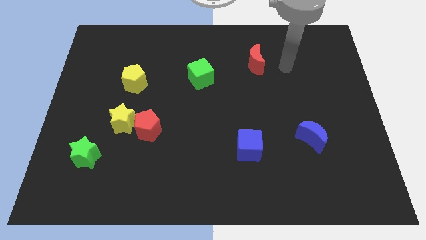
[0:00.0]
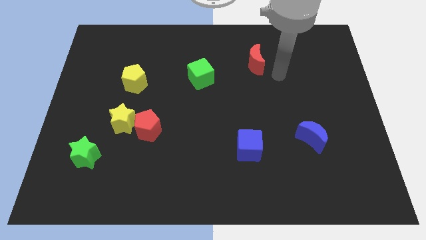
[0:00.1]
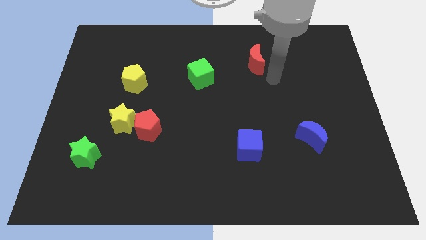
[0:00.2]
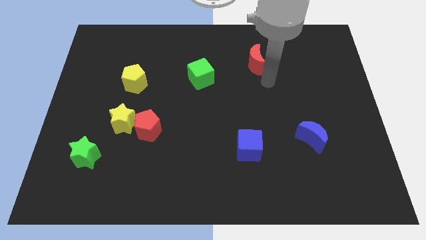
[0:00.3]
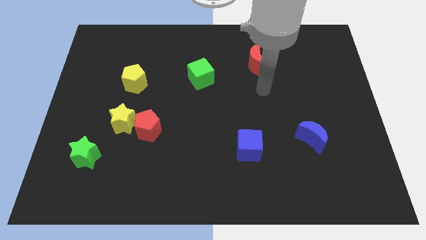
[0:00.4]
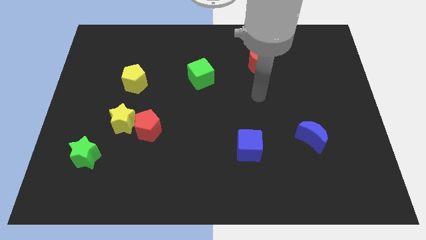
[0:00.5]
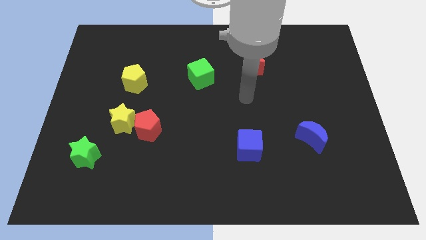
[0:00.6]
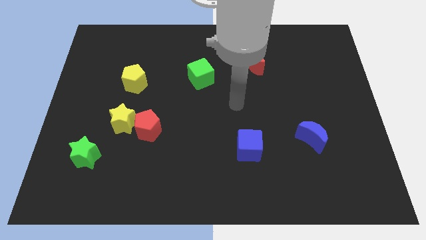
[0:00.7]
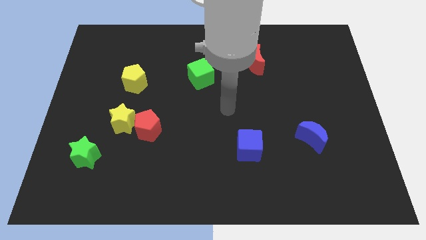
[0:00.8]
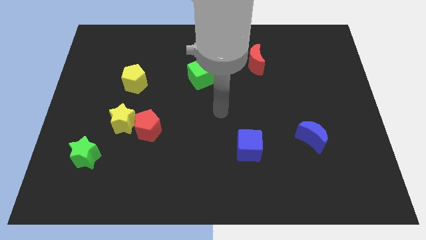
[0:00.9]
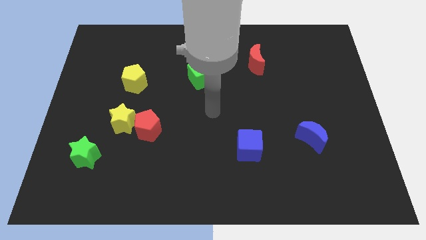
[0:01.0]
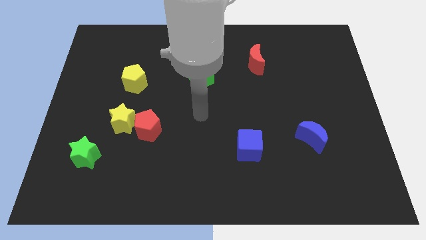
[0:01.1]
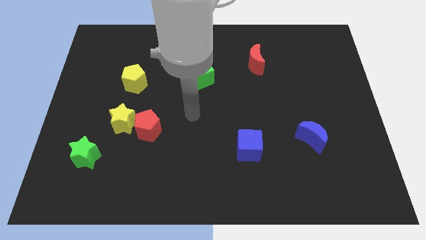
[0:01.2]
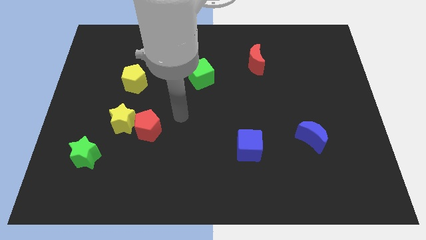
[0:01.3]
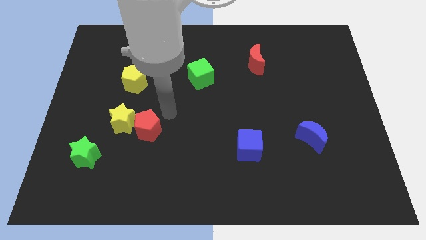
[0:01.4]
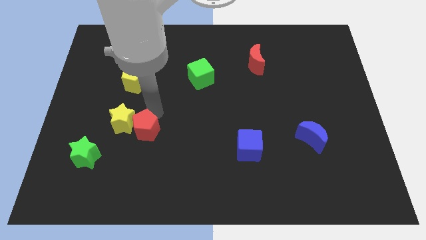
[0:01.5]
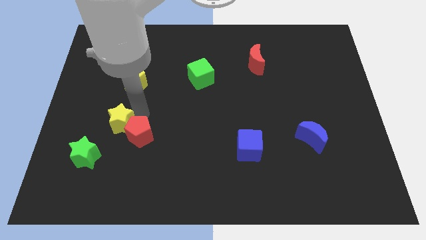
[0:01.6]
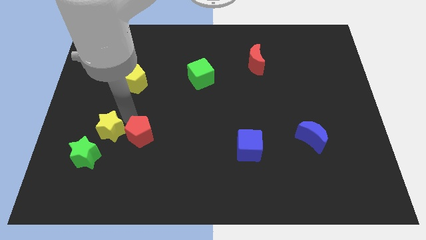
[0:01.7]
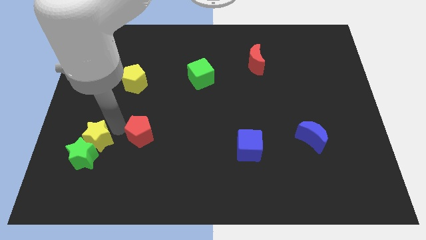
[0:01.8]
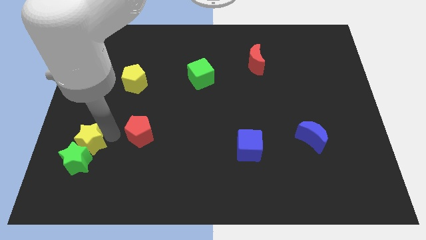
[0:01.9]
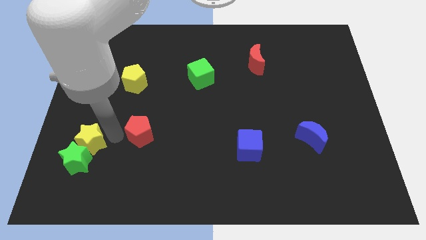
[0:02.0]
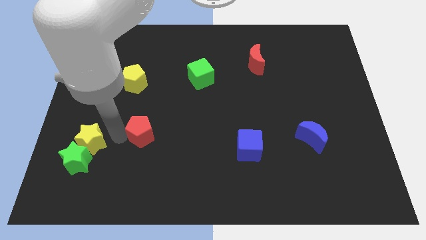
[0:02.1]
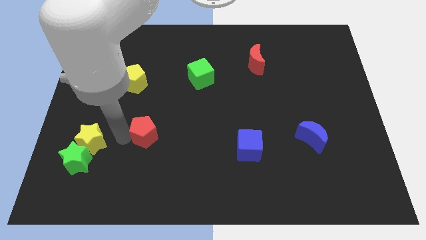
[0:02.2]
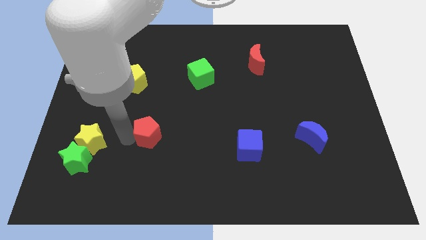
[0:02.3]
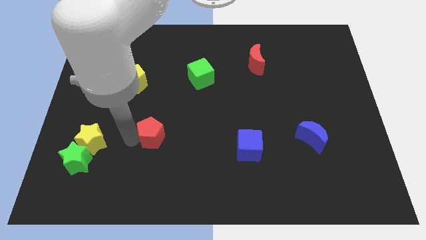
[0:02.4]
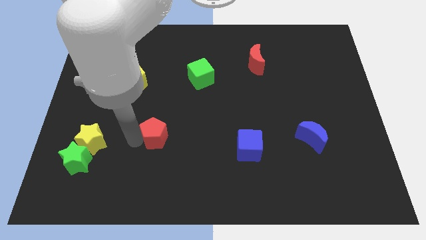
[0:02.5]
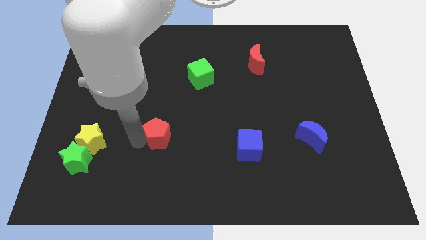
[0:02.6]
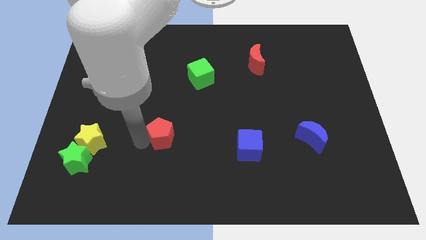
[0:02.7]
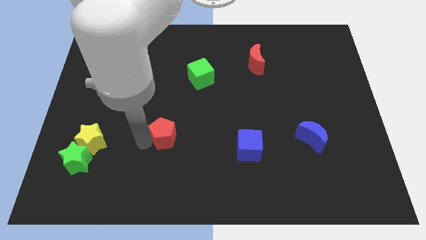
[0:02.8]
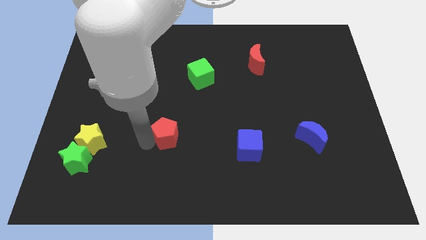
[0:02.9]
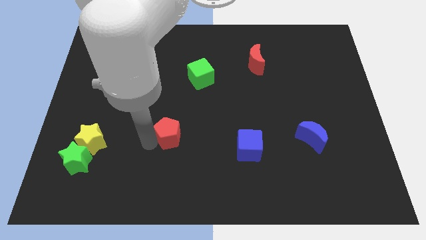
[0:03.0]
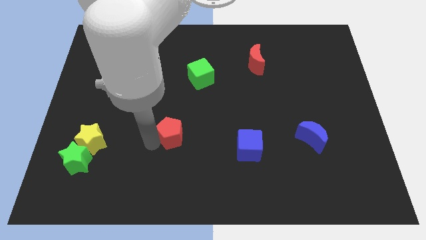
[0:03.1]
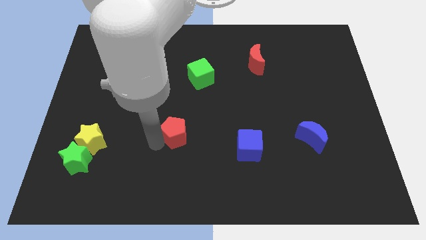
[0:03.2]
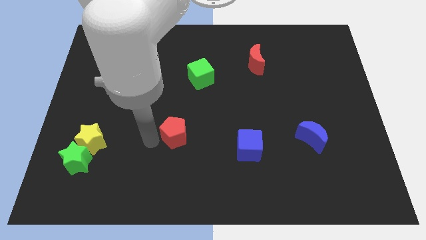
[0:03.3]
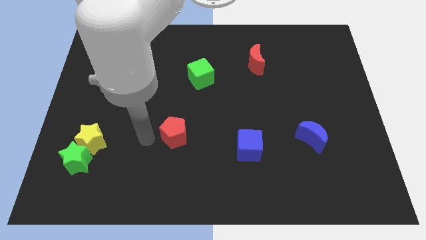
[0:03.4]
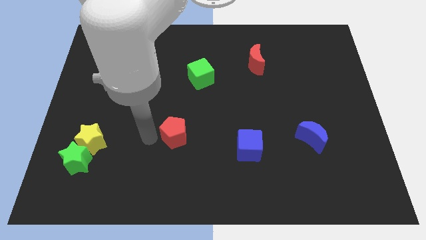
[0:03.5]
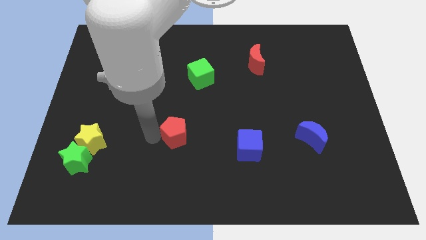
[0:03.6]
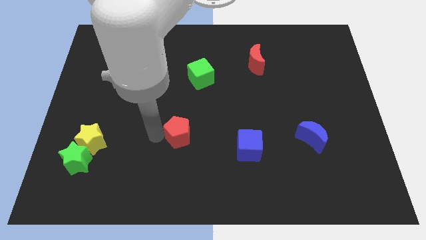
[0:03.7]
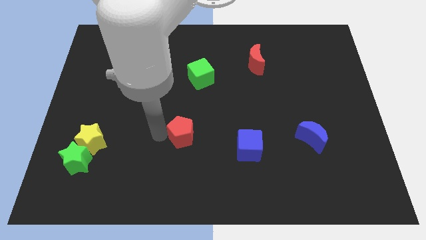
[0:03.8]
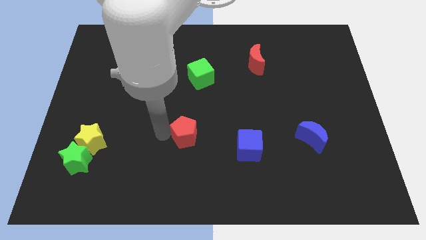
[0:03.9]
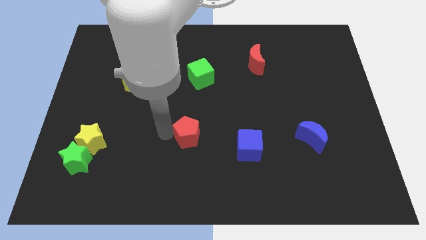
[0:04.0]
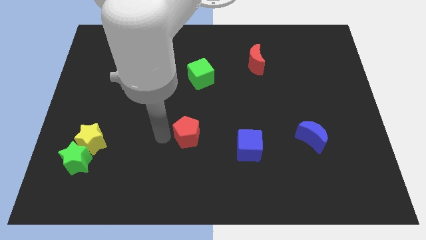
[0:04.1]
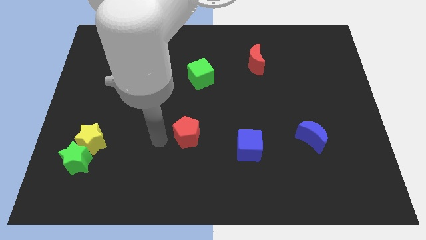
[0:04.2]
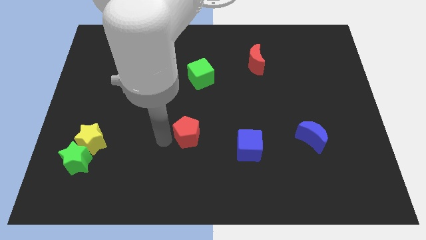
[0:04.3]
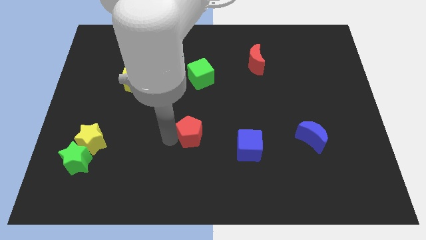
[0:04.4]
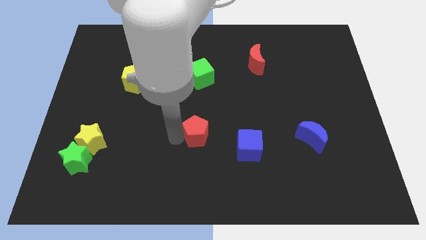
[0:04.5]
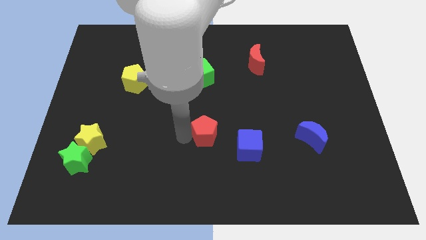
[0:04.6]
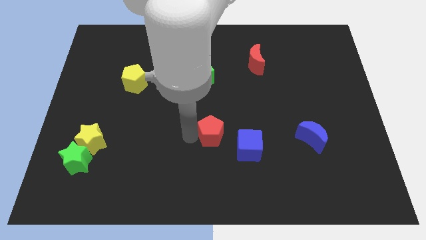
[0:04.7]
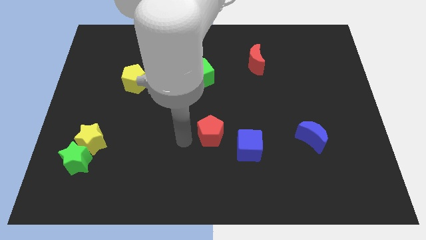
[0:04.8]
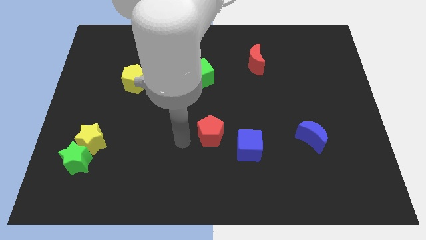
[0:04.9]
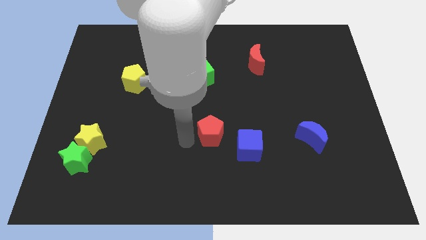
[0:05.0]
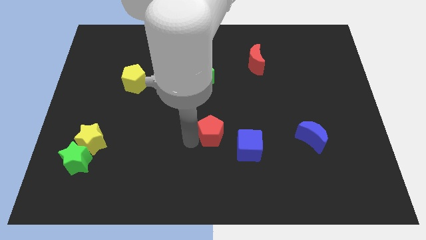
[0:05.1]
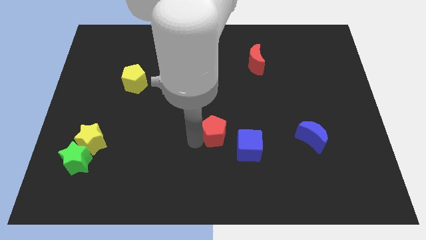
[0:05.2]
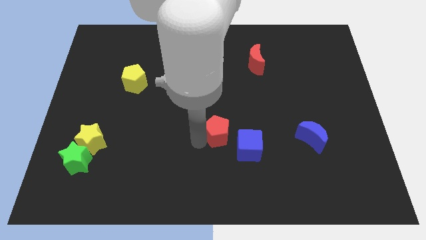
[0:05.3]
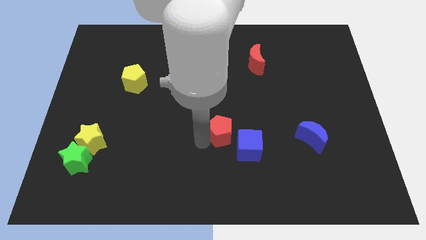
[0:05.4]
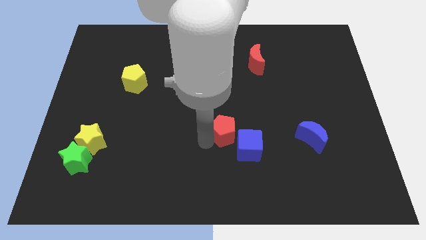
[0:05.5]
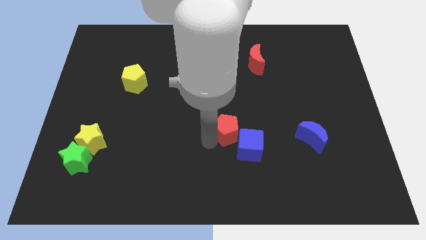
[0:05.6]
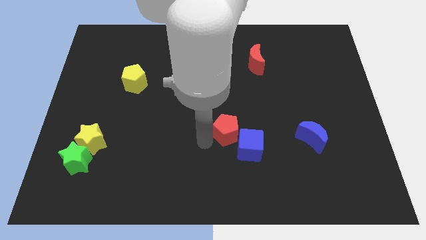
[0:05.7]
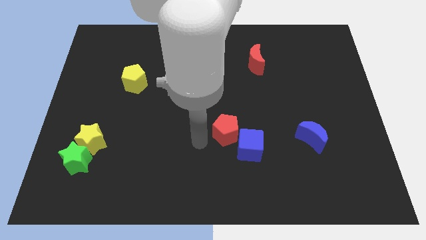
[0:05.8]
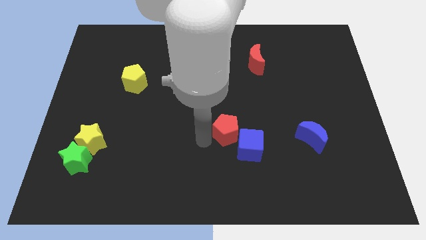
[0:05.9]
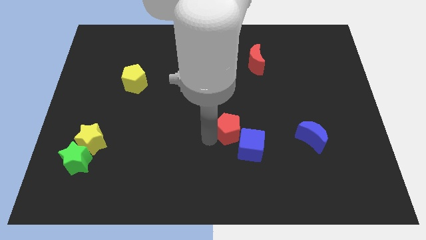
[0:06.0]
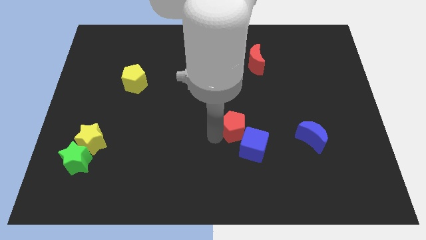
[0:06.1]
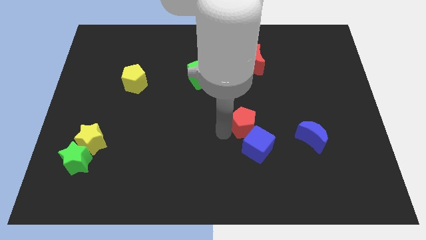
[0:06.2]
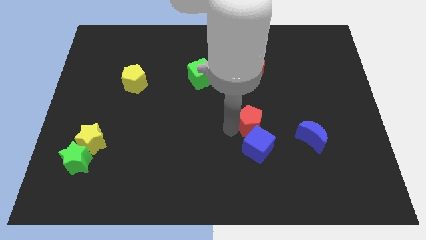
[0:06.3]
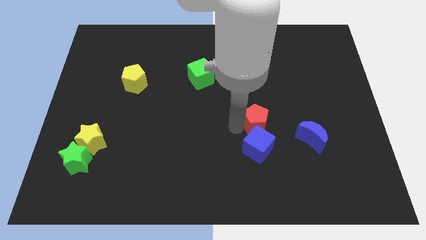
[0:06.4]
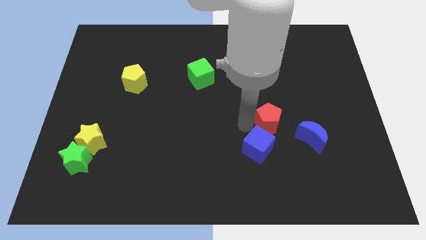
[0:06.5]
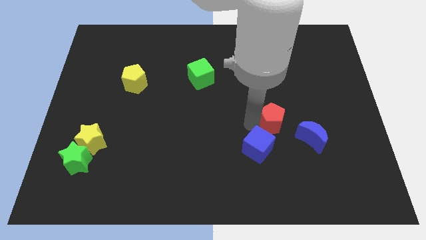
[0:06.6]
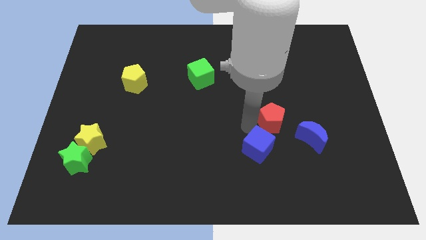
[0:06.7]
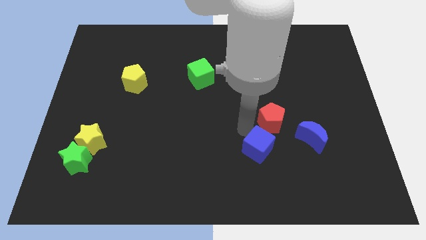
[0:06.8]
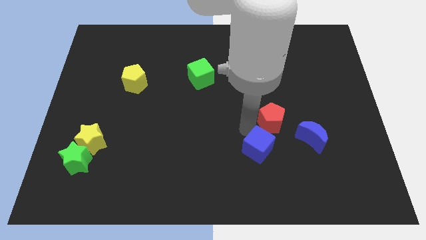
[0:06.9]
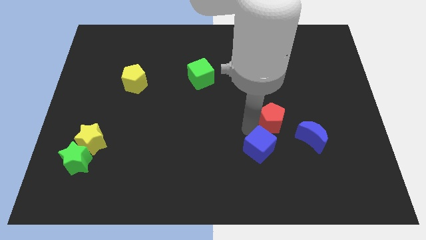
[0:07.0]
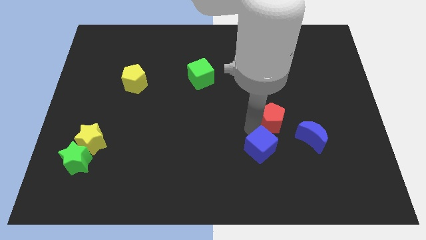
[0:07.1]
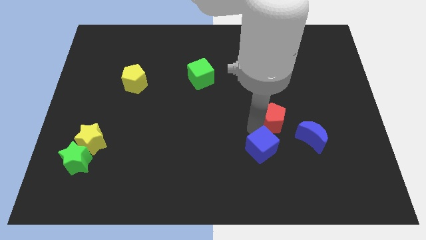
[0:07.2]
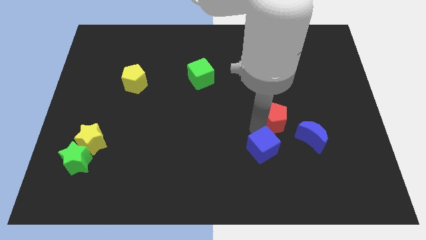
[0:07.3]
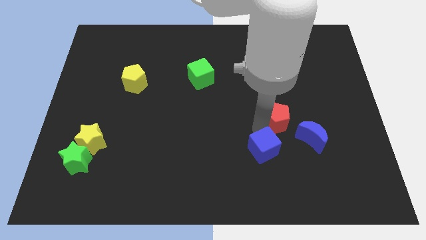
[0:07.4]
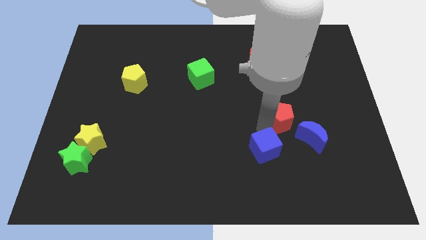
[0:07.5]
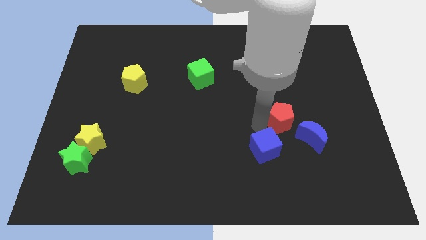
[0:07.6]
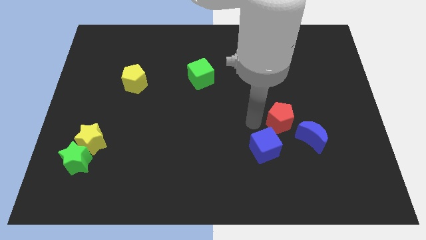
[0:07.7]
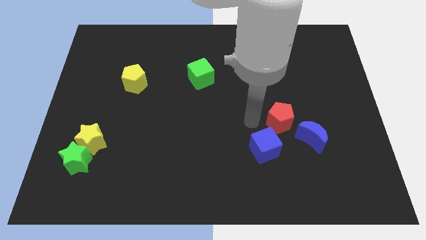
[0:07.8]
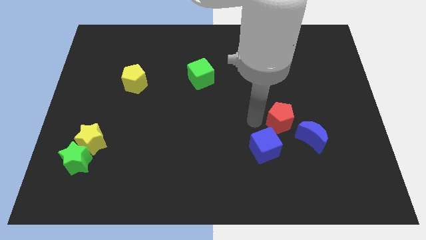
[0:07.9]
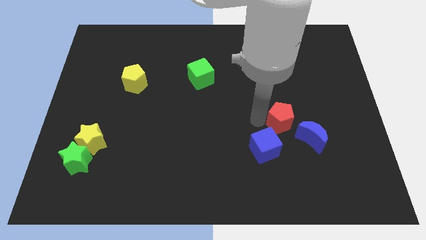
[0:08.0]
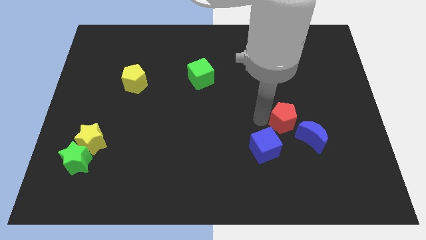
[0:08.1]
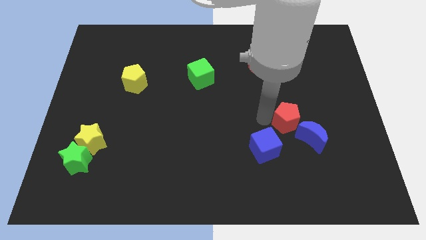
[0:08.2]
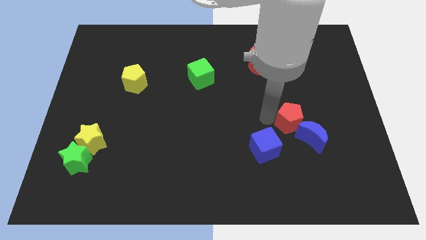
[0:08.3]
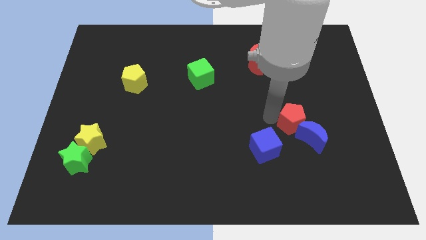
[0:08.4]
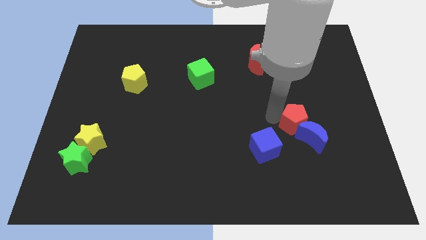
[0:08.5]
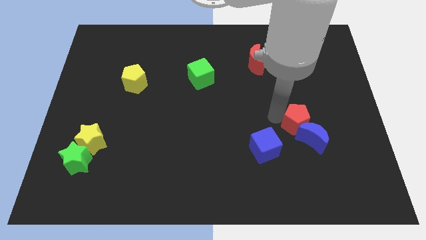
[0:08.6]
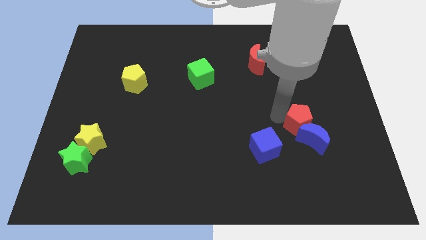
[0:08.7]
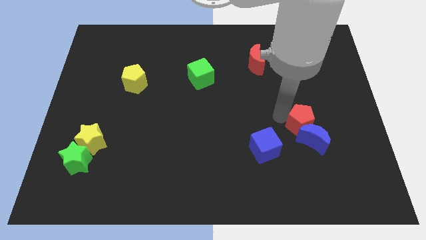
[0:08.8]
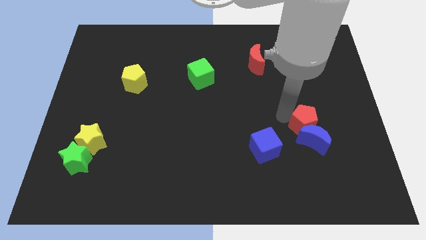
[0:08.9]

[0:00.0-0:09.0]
slide the red pentagon to the top right side of the blue moon
